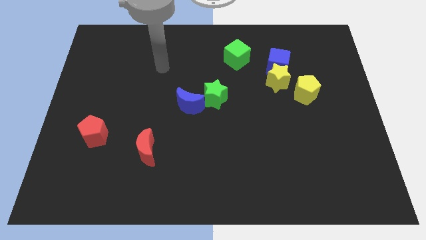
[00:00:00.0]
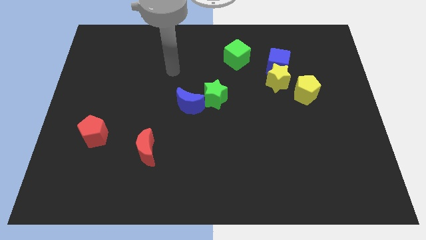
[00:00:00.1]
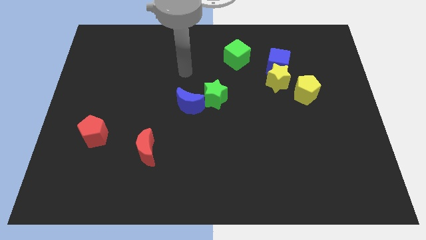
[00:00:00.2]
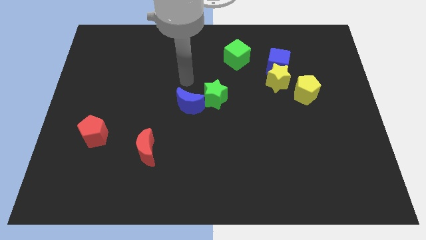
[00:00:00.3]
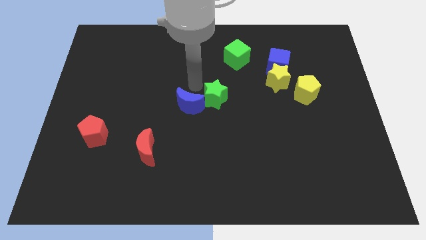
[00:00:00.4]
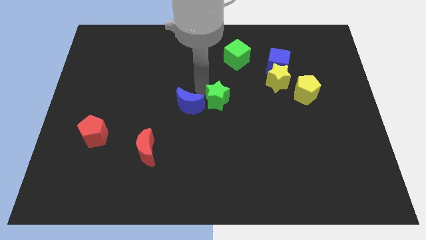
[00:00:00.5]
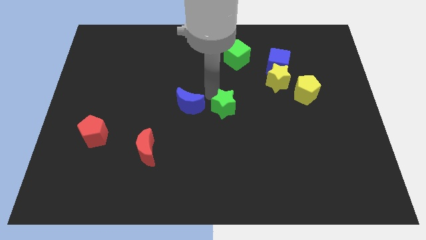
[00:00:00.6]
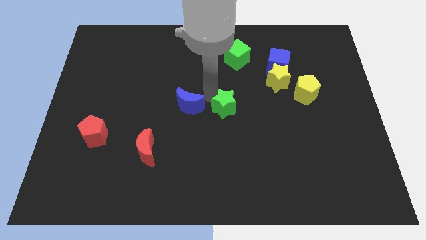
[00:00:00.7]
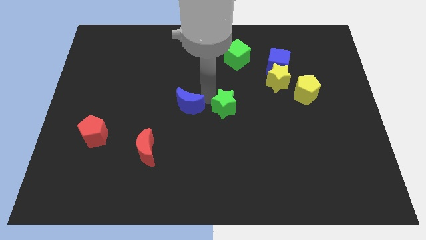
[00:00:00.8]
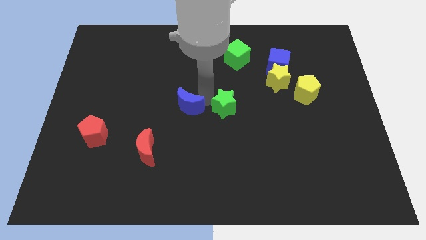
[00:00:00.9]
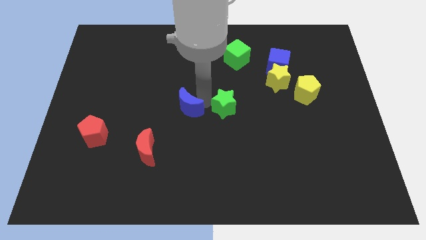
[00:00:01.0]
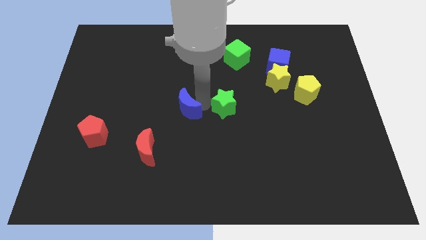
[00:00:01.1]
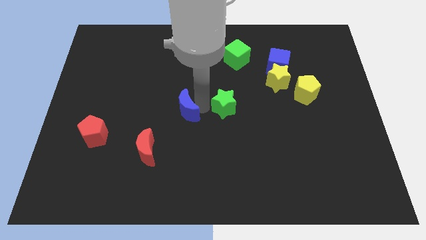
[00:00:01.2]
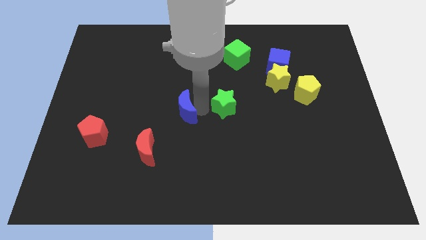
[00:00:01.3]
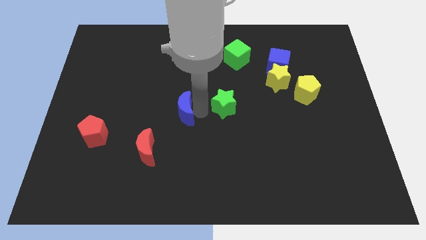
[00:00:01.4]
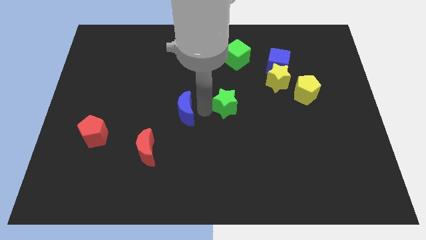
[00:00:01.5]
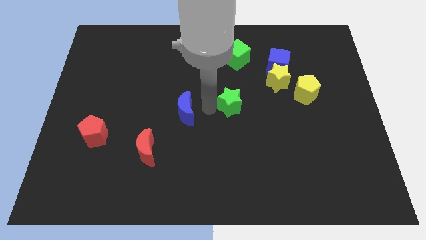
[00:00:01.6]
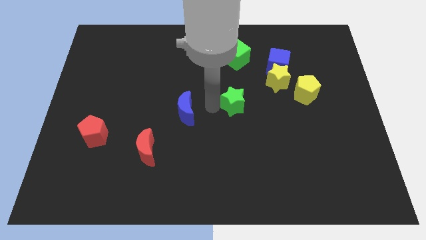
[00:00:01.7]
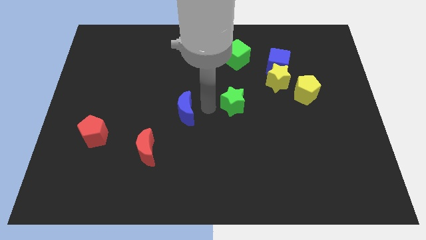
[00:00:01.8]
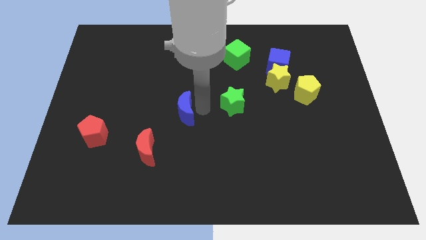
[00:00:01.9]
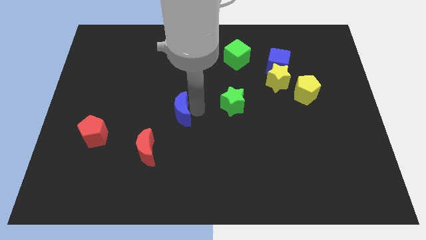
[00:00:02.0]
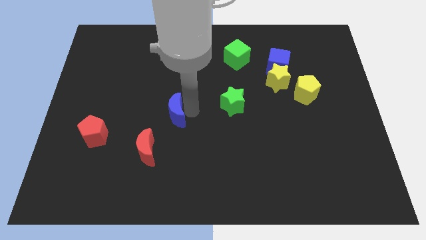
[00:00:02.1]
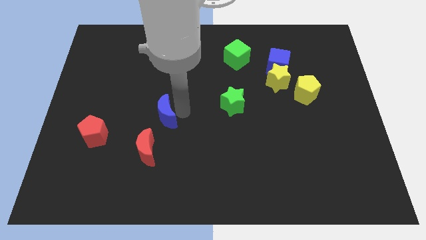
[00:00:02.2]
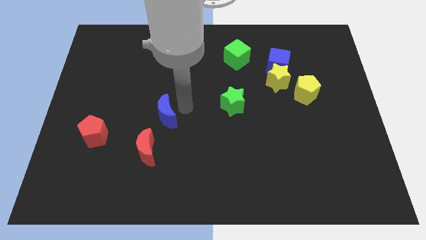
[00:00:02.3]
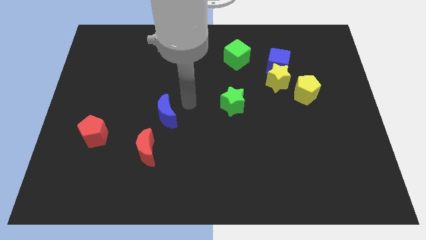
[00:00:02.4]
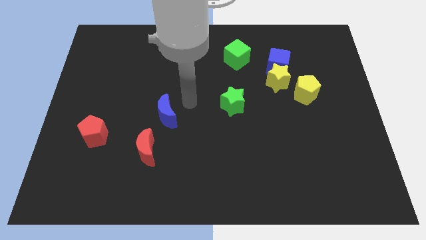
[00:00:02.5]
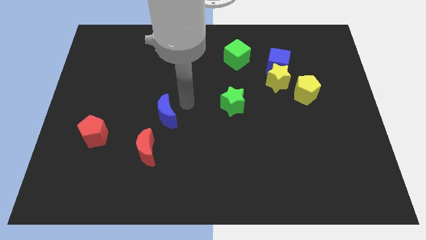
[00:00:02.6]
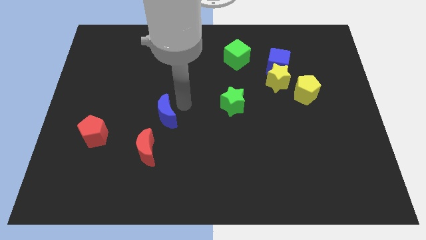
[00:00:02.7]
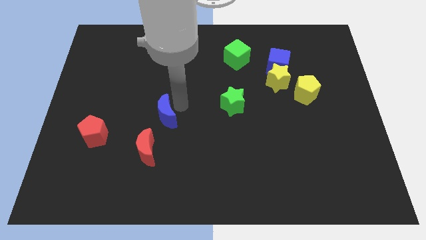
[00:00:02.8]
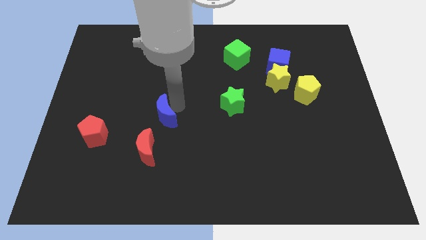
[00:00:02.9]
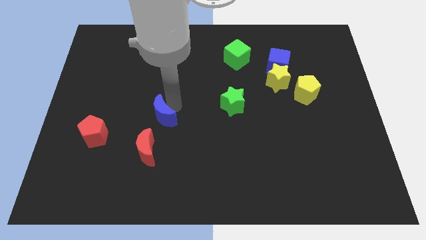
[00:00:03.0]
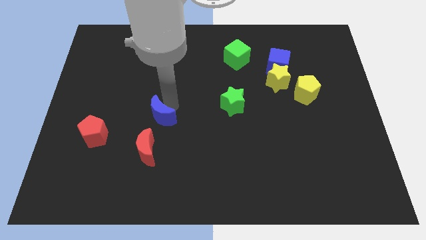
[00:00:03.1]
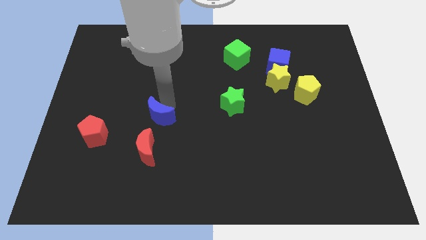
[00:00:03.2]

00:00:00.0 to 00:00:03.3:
slightly move the blue moon down and to the left diagonally

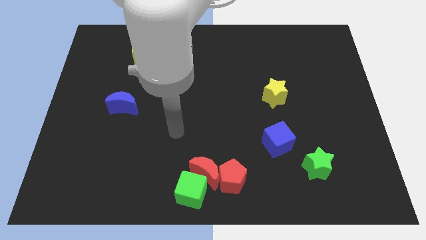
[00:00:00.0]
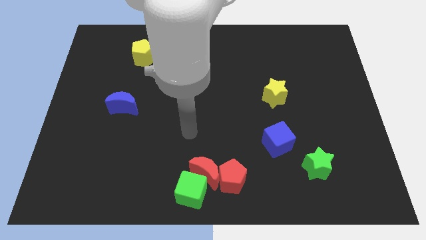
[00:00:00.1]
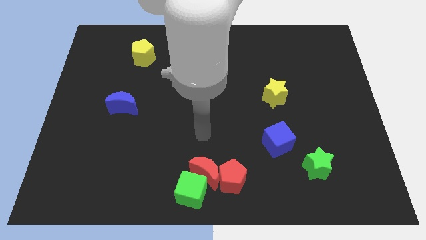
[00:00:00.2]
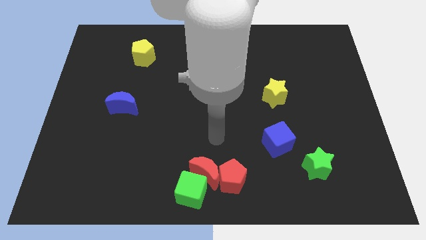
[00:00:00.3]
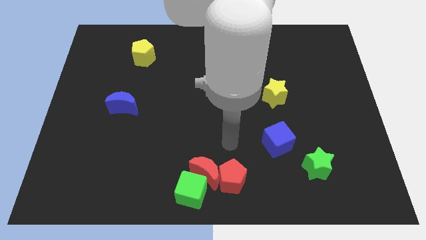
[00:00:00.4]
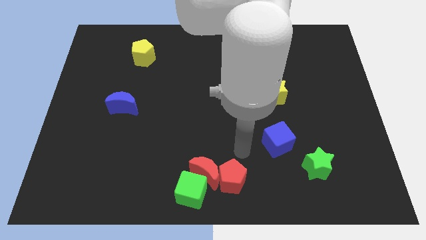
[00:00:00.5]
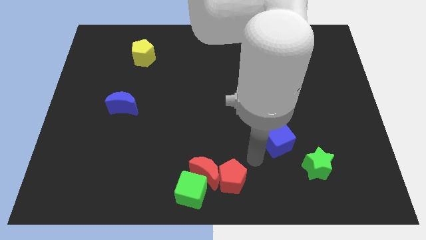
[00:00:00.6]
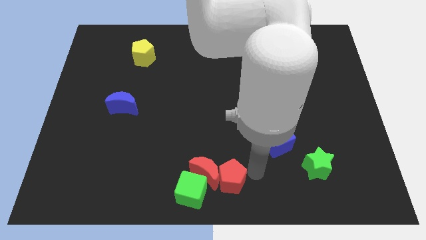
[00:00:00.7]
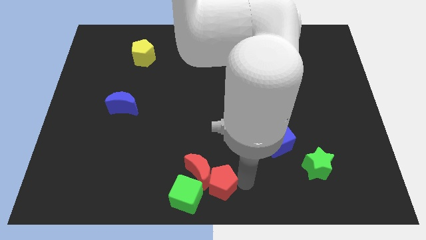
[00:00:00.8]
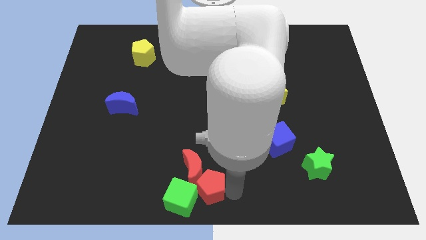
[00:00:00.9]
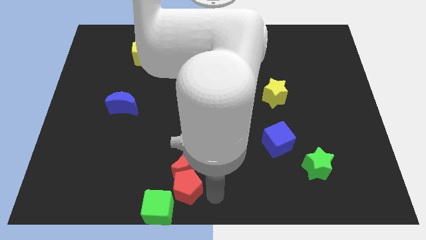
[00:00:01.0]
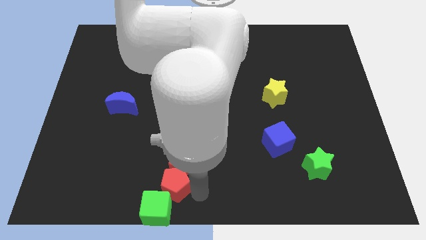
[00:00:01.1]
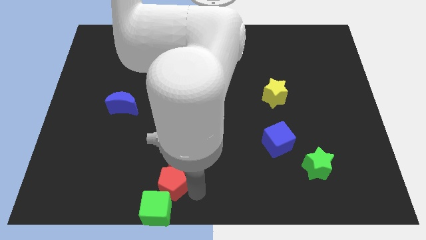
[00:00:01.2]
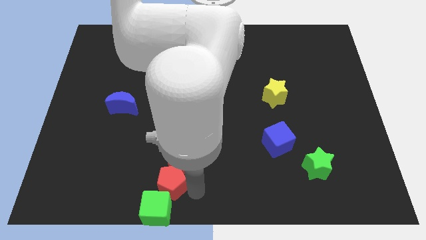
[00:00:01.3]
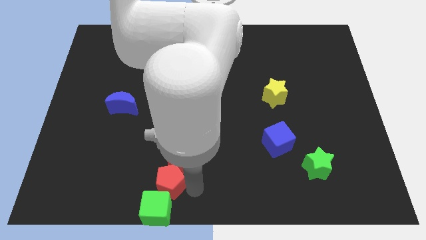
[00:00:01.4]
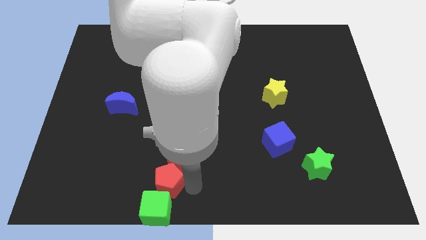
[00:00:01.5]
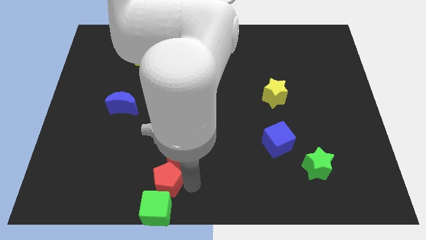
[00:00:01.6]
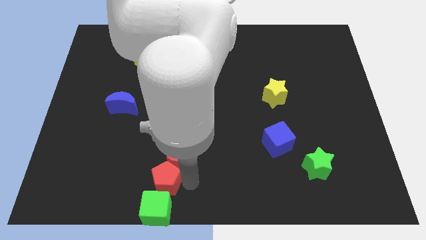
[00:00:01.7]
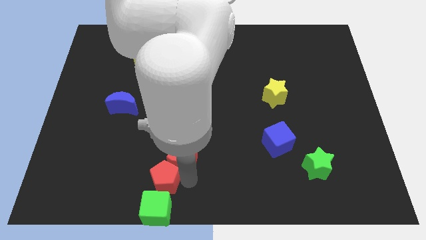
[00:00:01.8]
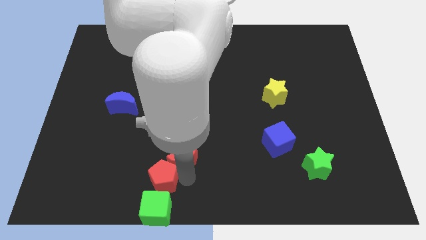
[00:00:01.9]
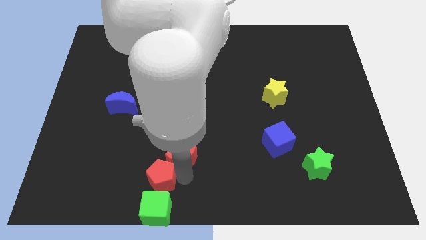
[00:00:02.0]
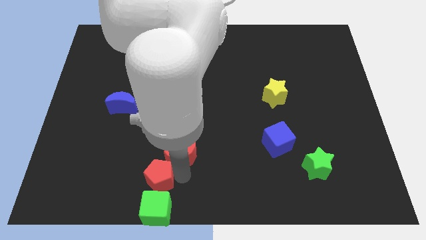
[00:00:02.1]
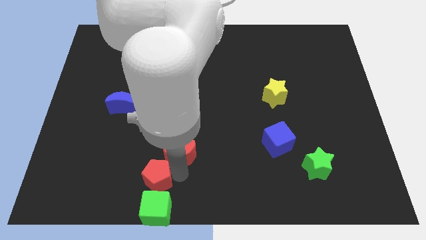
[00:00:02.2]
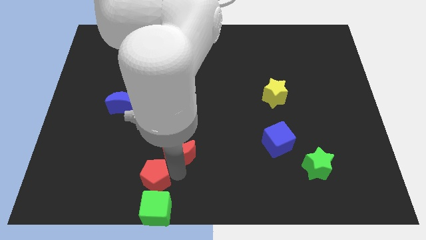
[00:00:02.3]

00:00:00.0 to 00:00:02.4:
slightly push the red moon up and left diagonally

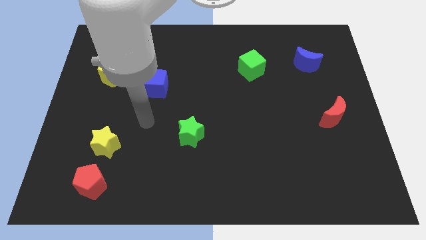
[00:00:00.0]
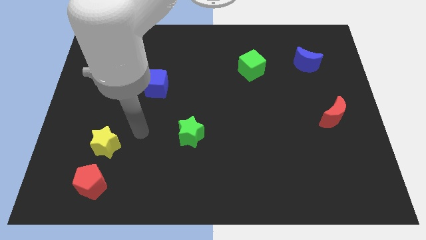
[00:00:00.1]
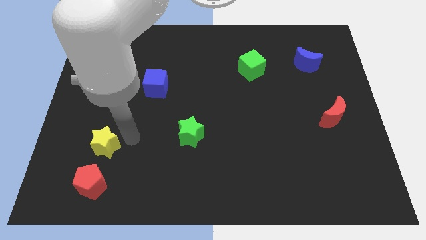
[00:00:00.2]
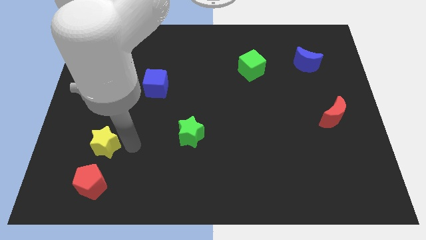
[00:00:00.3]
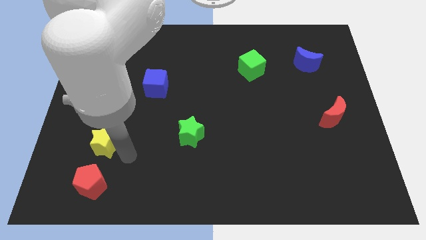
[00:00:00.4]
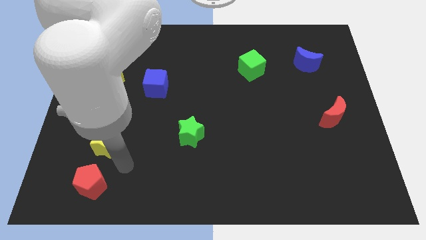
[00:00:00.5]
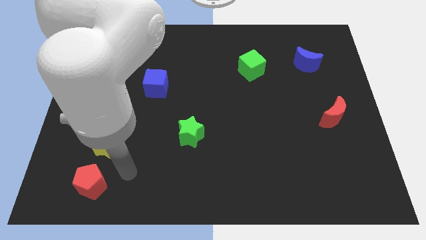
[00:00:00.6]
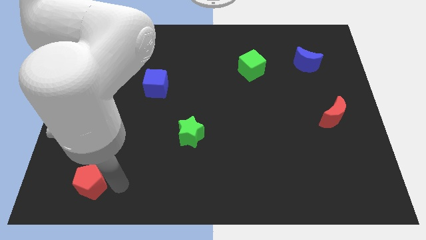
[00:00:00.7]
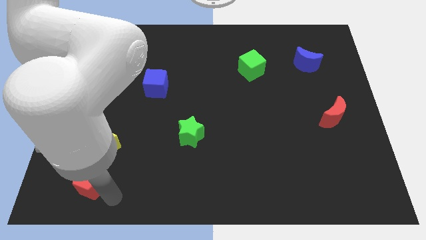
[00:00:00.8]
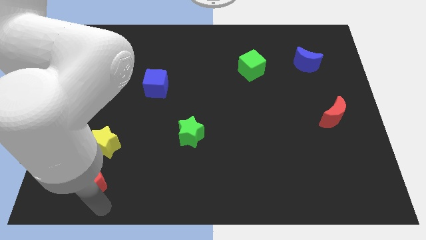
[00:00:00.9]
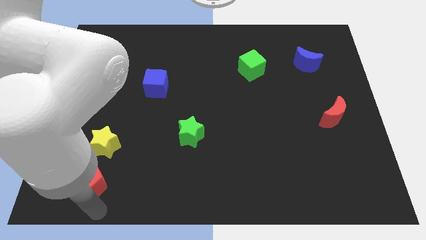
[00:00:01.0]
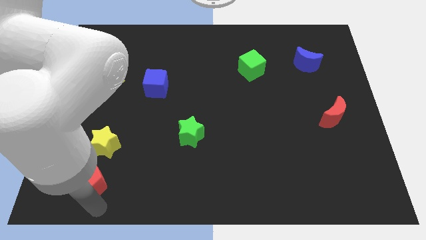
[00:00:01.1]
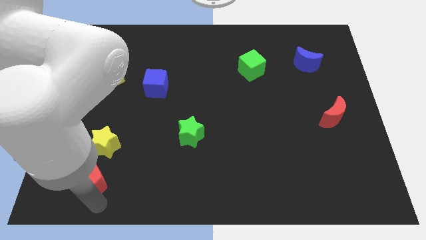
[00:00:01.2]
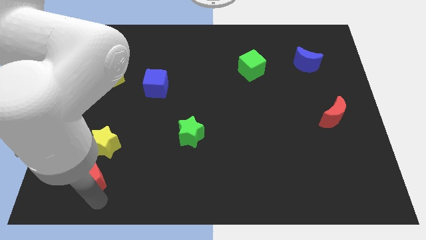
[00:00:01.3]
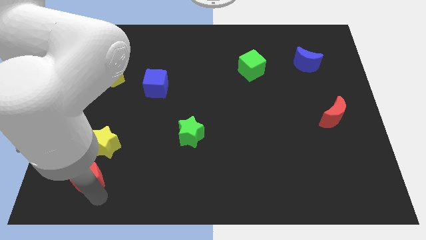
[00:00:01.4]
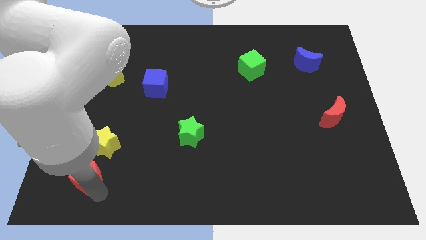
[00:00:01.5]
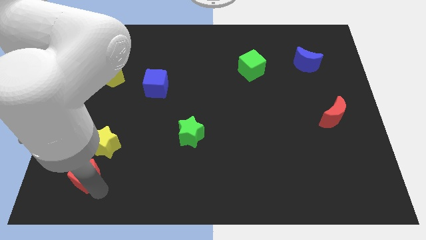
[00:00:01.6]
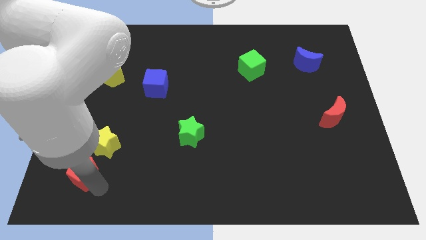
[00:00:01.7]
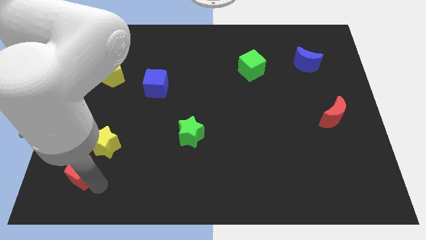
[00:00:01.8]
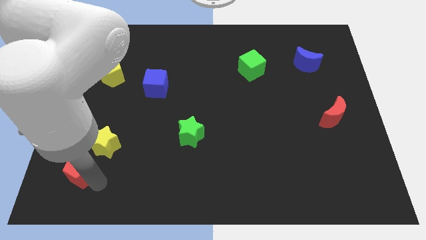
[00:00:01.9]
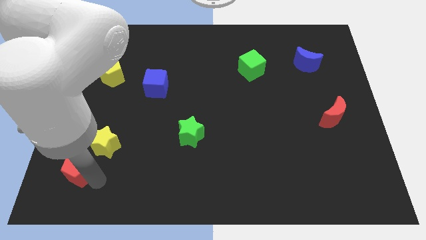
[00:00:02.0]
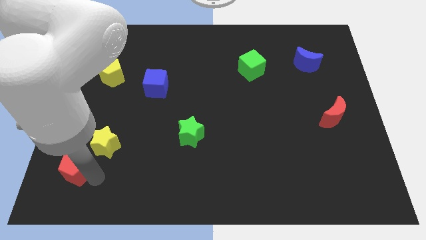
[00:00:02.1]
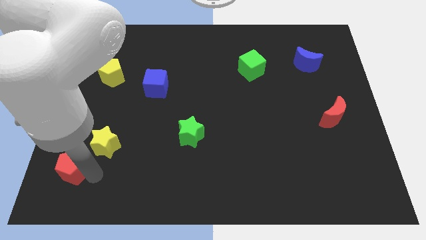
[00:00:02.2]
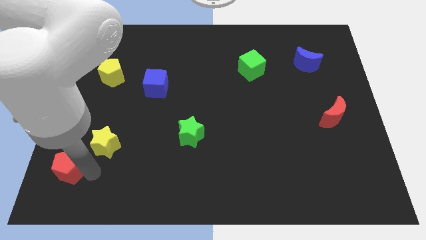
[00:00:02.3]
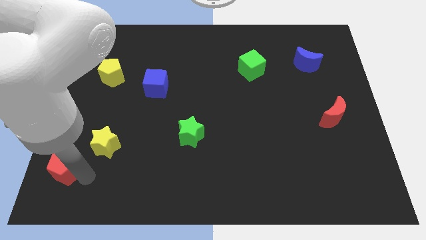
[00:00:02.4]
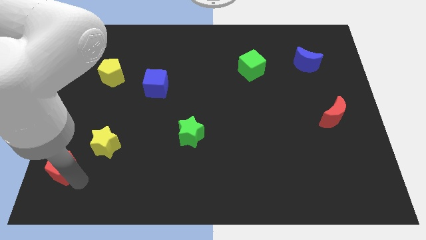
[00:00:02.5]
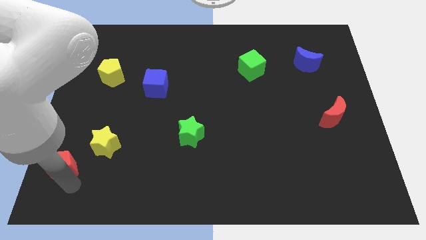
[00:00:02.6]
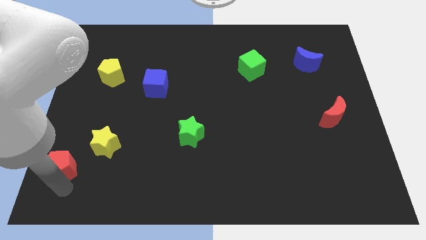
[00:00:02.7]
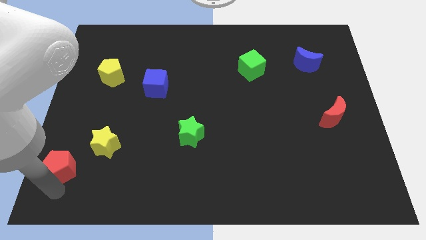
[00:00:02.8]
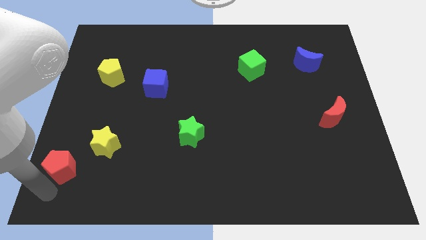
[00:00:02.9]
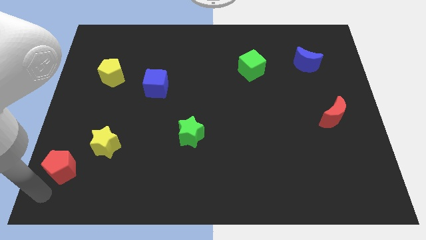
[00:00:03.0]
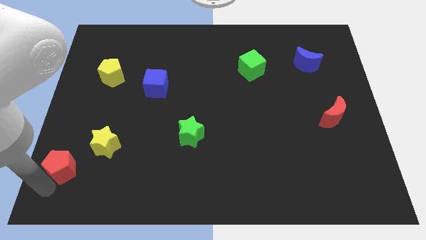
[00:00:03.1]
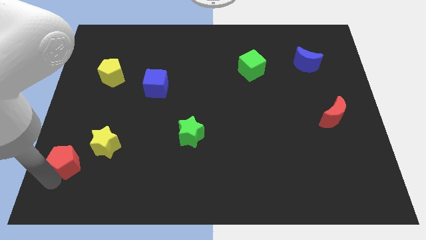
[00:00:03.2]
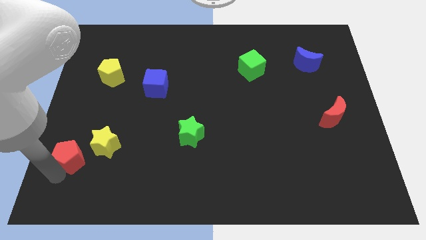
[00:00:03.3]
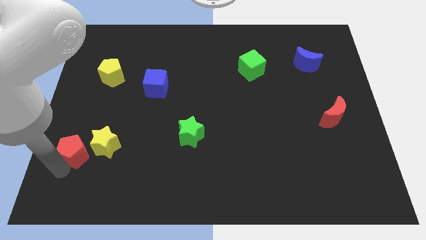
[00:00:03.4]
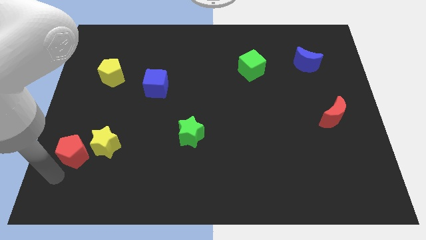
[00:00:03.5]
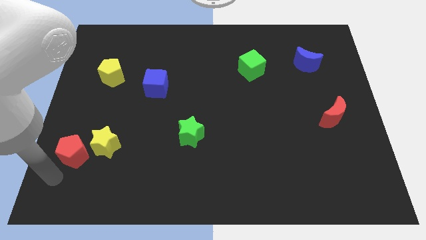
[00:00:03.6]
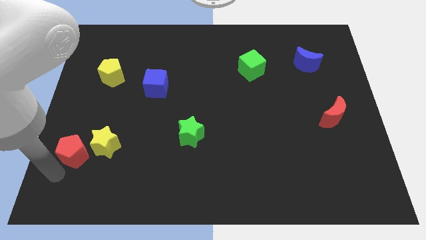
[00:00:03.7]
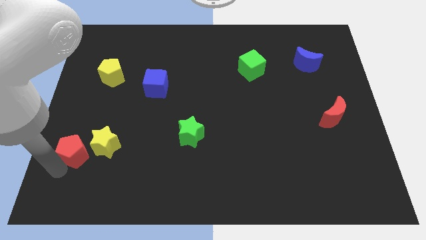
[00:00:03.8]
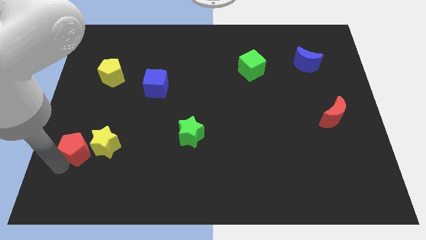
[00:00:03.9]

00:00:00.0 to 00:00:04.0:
slightly slide the red pentagon up
